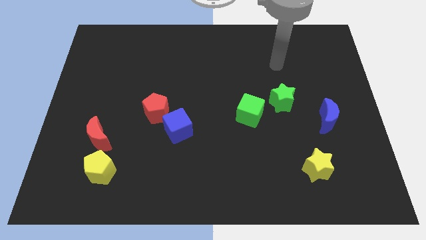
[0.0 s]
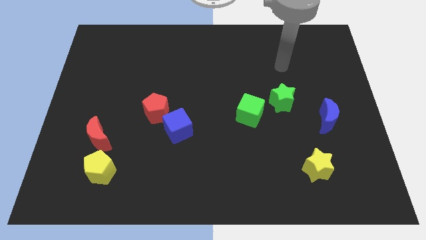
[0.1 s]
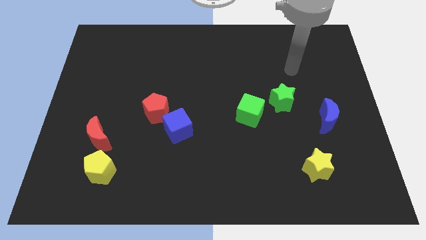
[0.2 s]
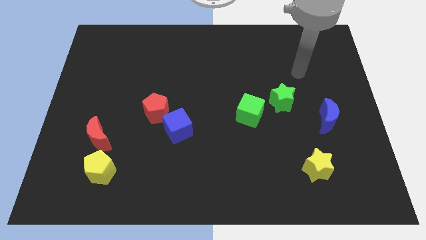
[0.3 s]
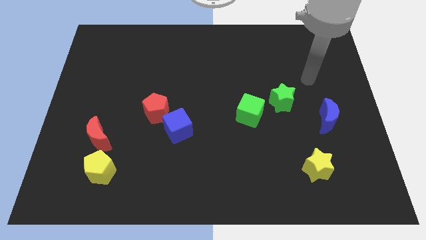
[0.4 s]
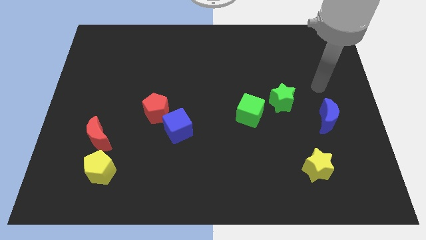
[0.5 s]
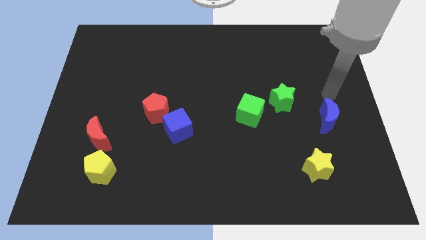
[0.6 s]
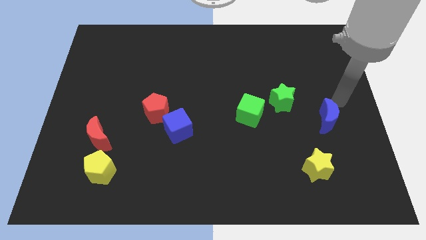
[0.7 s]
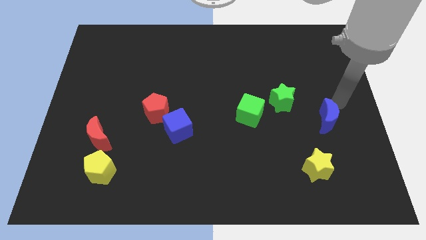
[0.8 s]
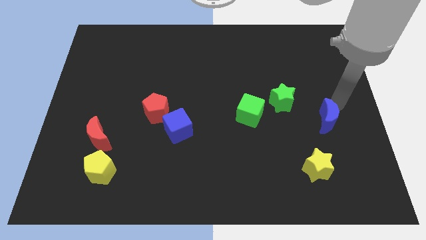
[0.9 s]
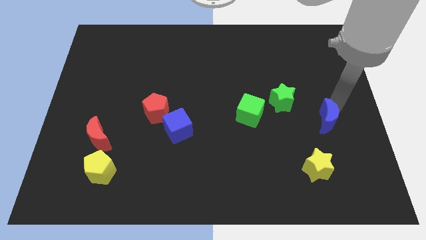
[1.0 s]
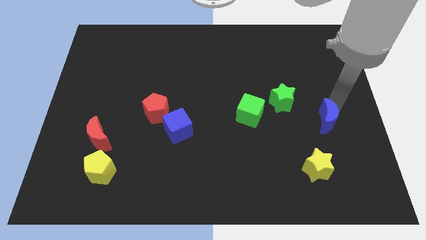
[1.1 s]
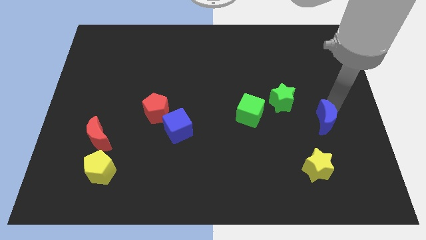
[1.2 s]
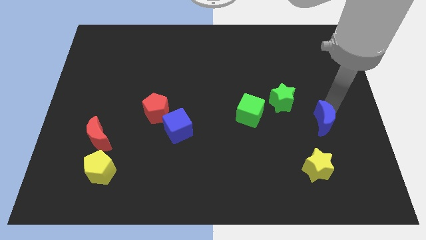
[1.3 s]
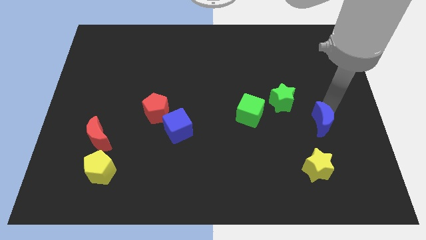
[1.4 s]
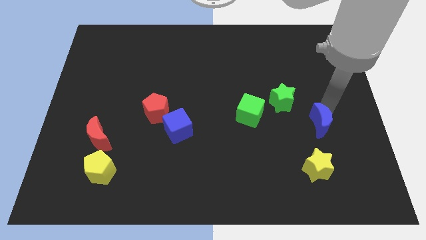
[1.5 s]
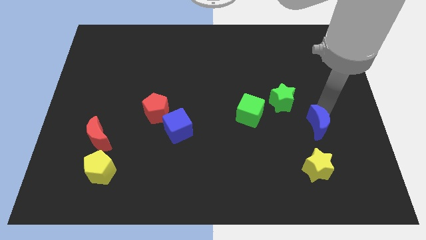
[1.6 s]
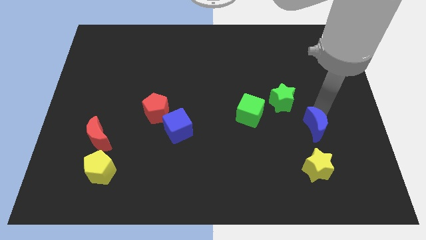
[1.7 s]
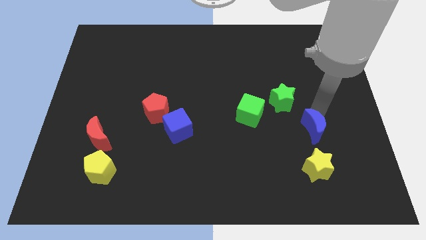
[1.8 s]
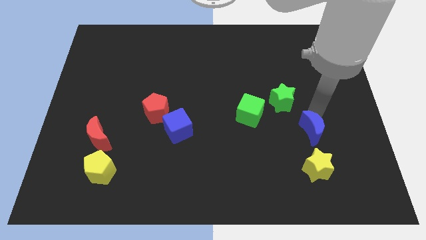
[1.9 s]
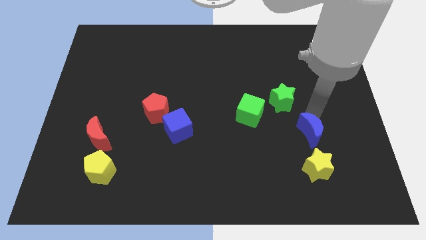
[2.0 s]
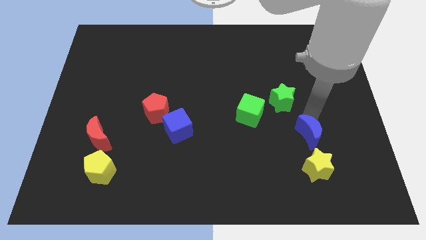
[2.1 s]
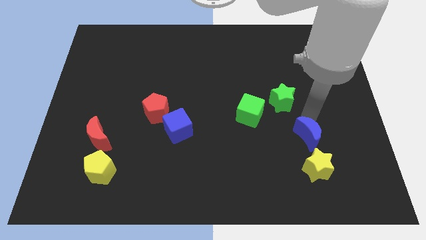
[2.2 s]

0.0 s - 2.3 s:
slightly push the blue moon down and left

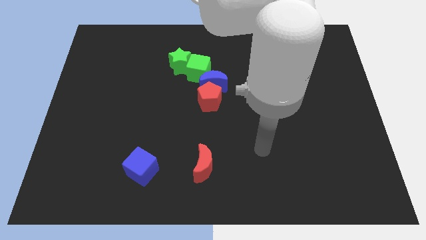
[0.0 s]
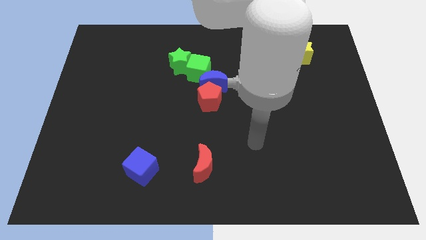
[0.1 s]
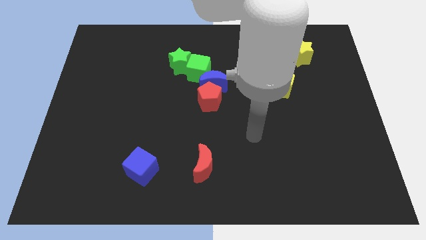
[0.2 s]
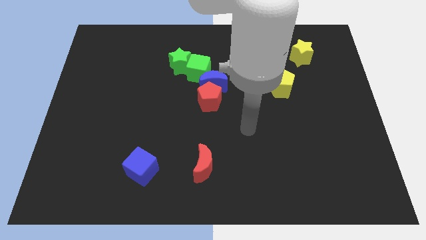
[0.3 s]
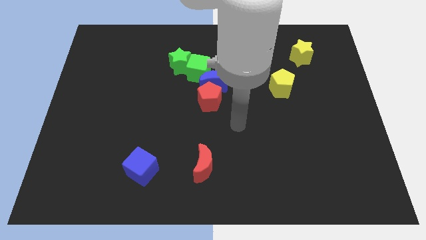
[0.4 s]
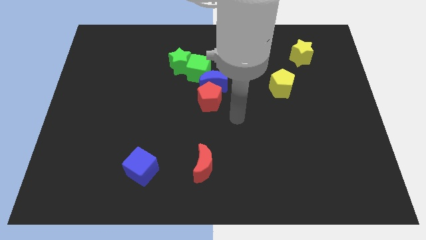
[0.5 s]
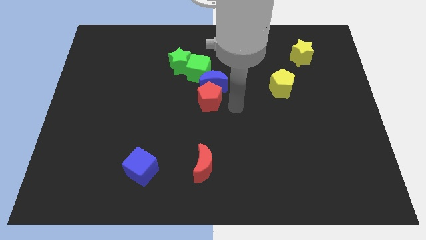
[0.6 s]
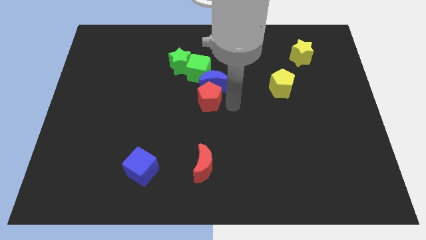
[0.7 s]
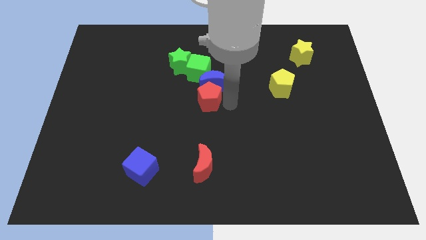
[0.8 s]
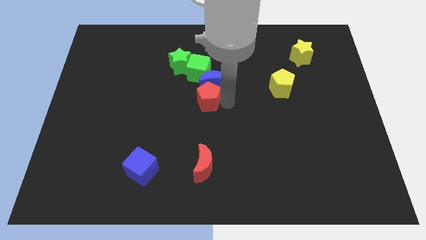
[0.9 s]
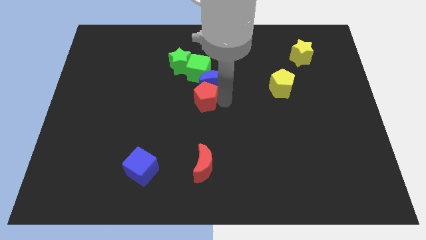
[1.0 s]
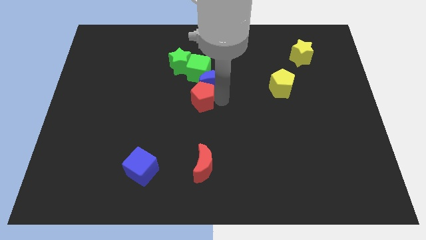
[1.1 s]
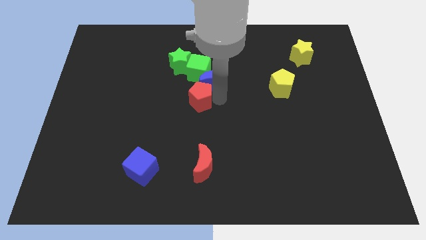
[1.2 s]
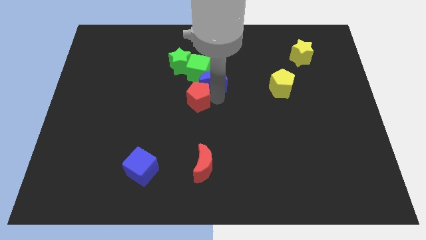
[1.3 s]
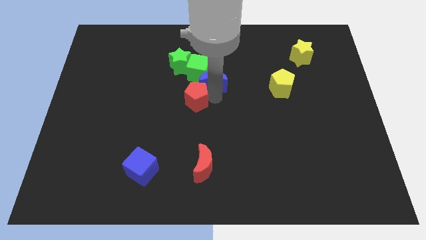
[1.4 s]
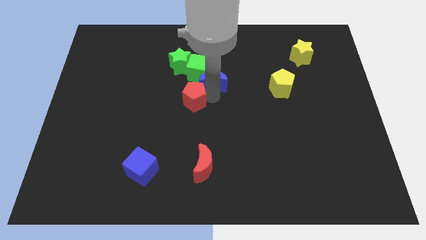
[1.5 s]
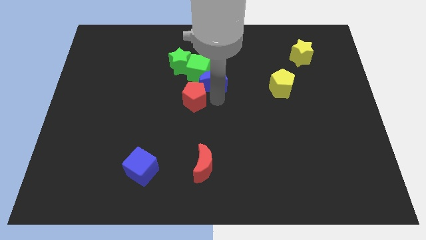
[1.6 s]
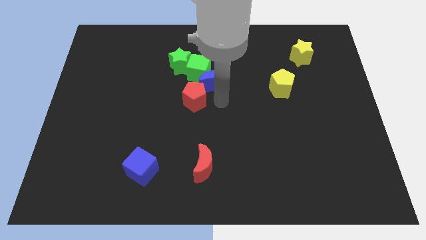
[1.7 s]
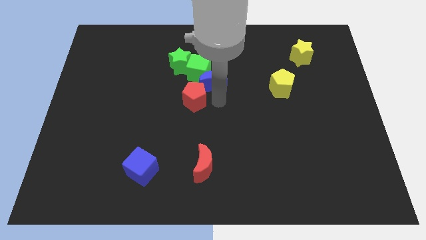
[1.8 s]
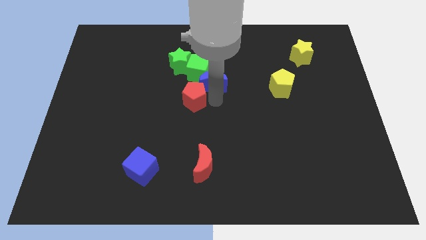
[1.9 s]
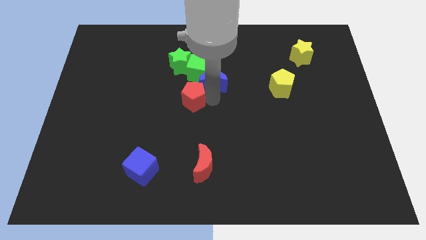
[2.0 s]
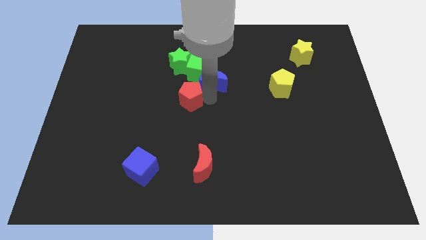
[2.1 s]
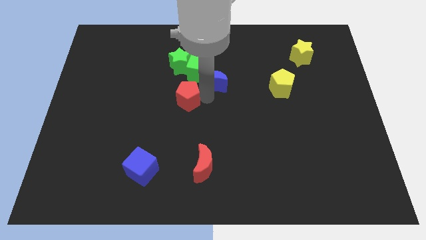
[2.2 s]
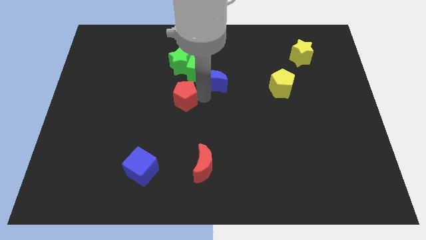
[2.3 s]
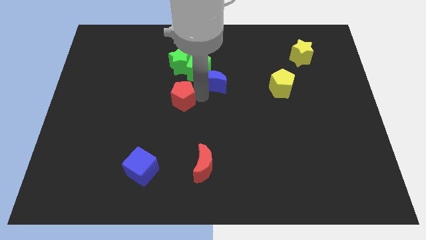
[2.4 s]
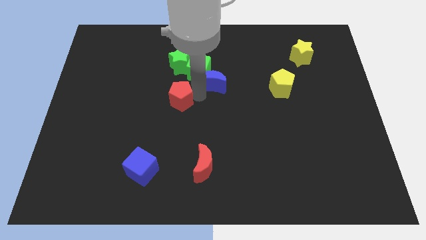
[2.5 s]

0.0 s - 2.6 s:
slide the red pentagon somewhat left

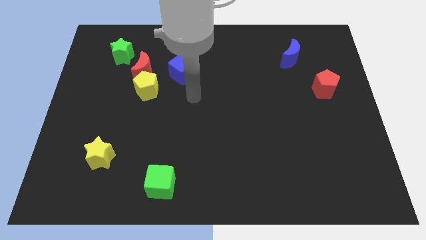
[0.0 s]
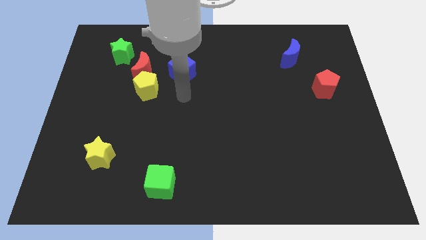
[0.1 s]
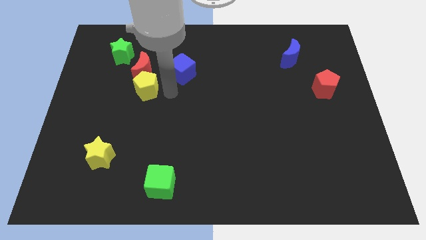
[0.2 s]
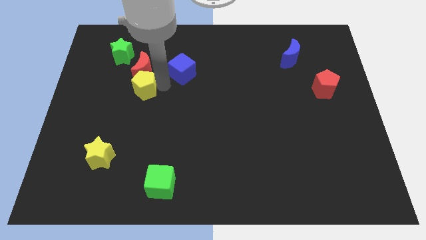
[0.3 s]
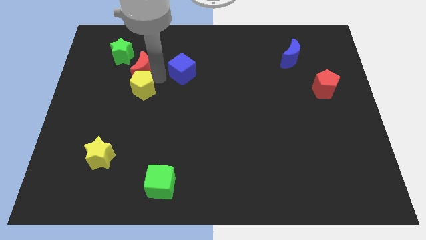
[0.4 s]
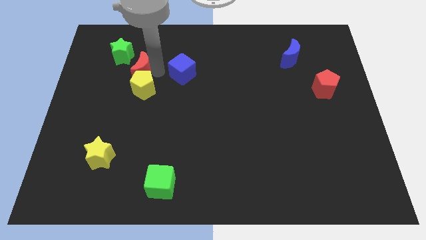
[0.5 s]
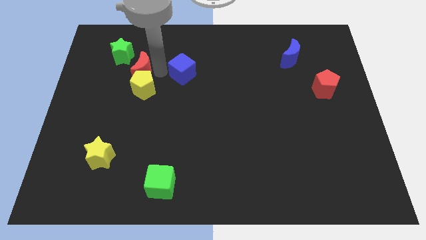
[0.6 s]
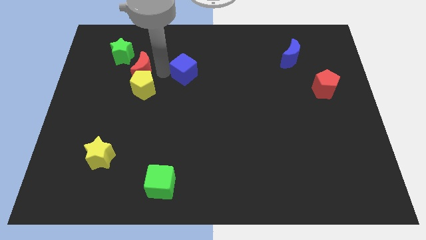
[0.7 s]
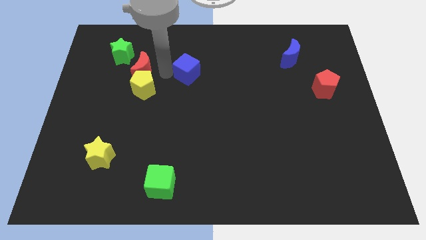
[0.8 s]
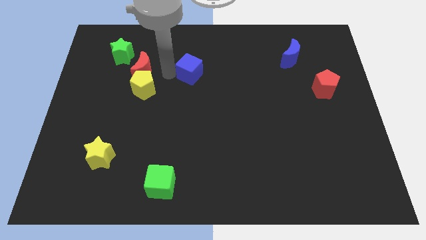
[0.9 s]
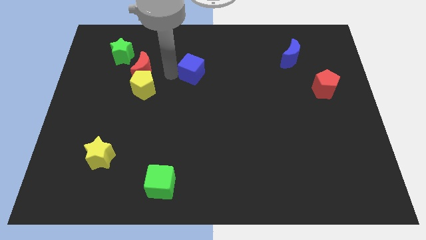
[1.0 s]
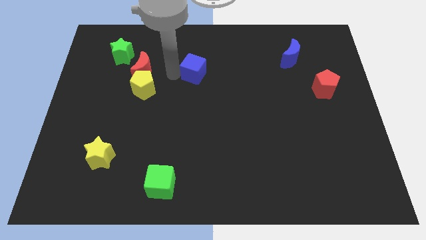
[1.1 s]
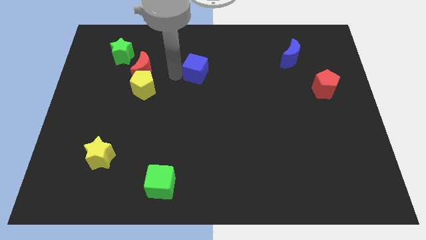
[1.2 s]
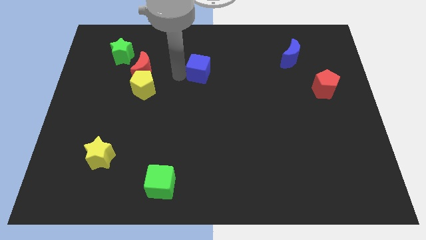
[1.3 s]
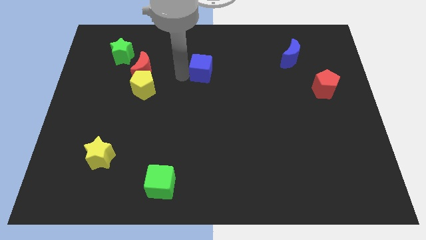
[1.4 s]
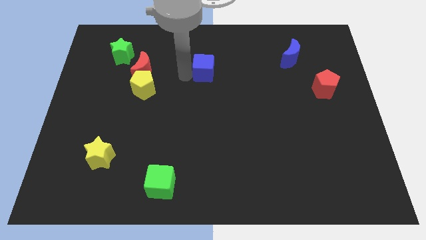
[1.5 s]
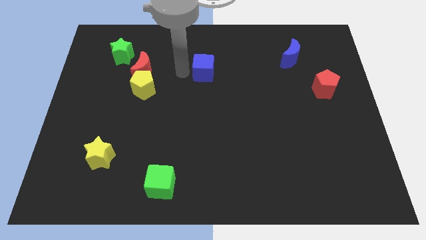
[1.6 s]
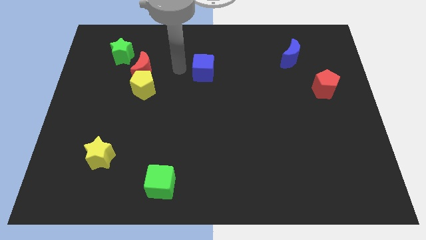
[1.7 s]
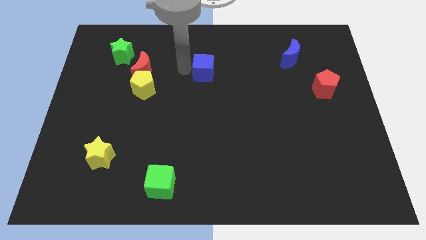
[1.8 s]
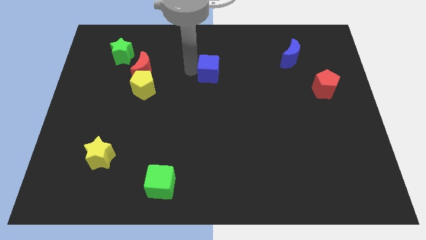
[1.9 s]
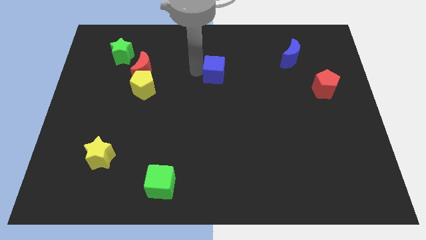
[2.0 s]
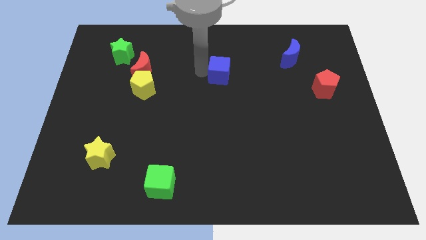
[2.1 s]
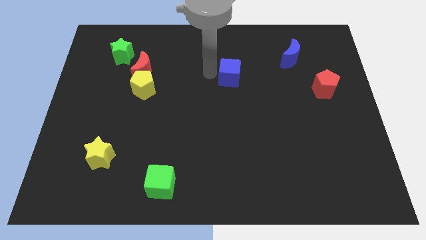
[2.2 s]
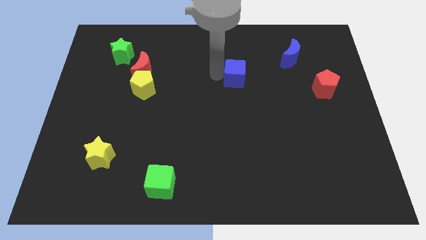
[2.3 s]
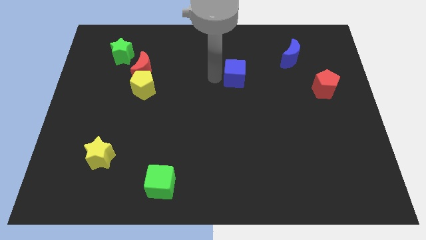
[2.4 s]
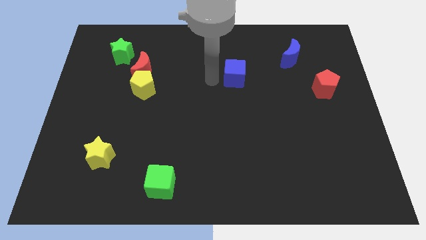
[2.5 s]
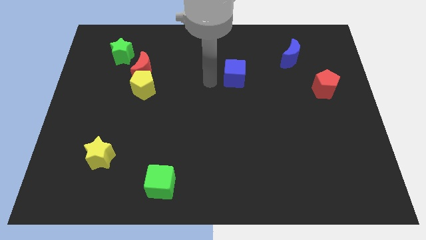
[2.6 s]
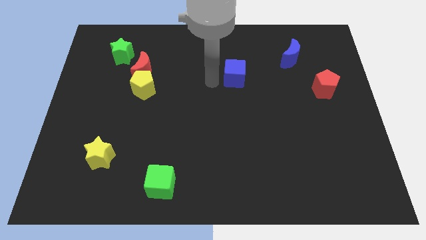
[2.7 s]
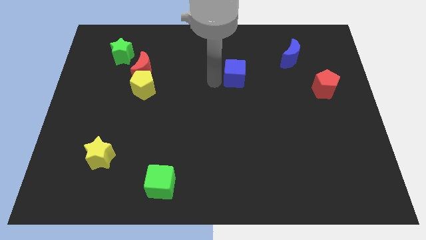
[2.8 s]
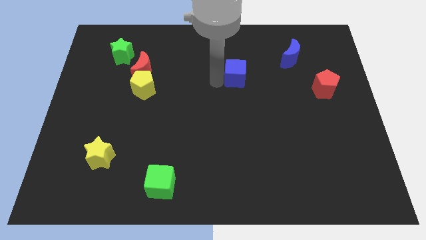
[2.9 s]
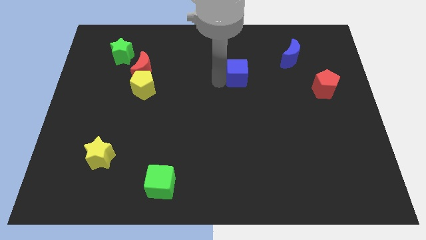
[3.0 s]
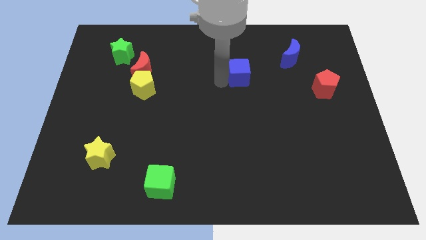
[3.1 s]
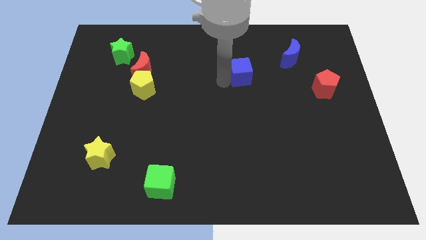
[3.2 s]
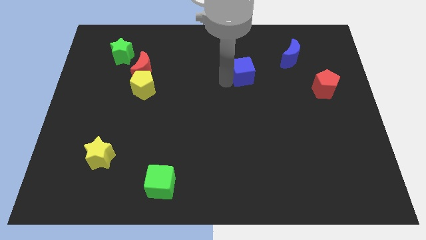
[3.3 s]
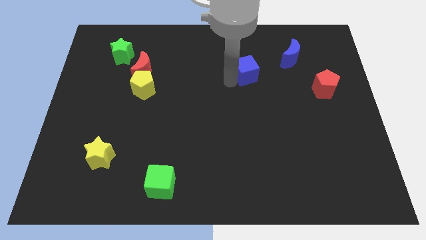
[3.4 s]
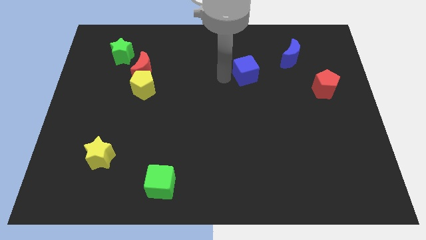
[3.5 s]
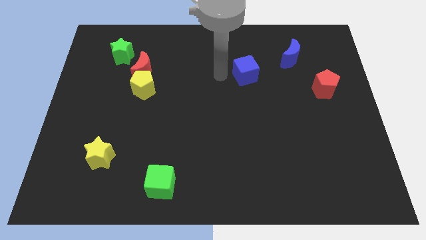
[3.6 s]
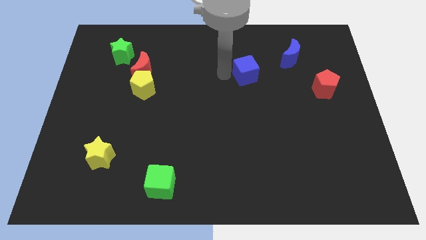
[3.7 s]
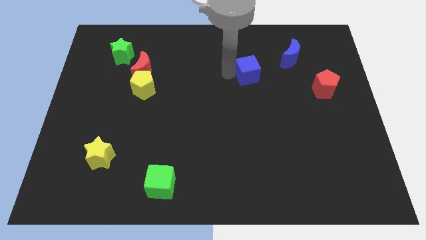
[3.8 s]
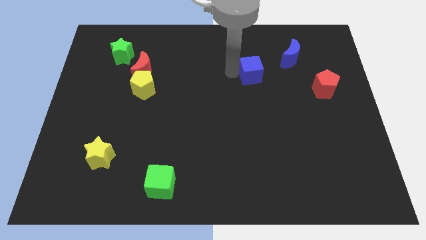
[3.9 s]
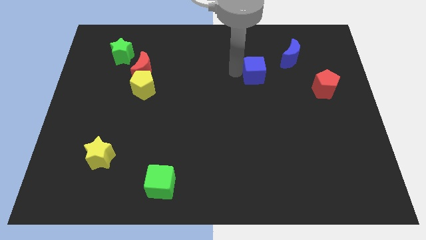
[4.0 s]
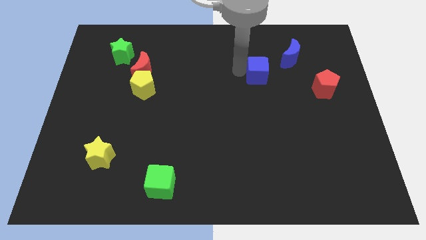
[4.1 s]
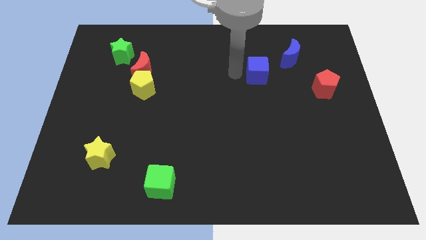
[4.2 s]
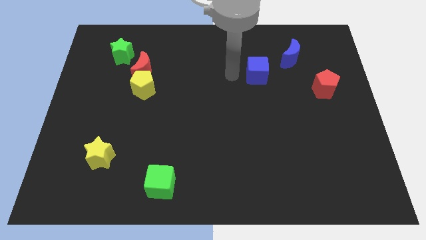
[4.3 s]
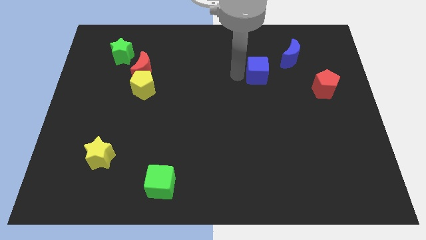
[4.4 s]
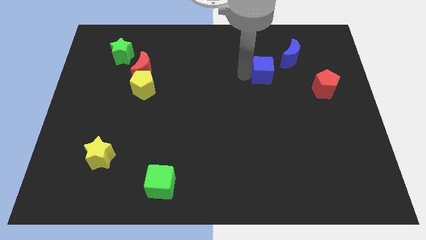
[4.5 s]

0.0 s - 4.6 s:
slide the blue cube right
